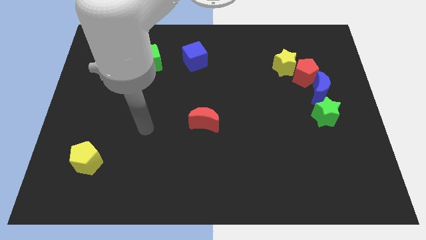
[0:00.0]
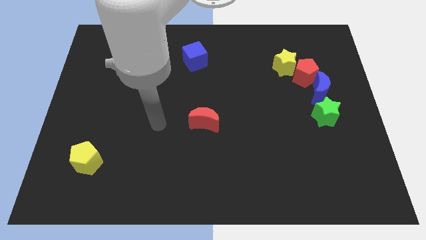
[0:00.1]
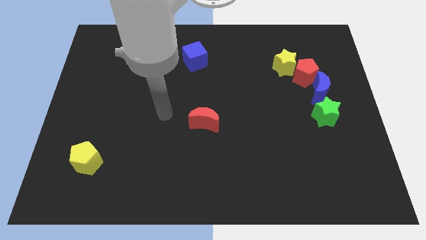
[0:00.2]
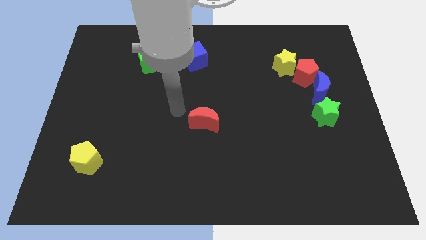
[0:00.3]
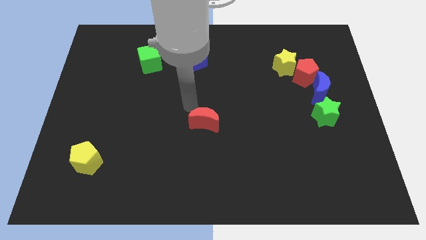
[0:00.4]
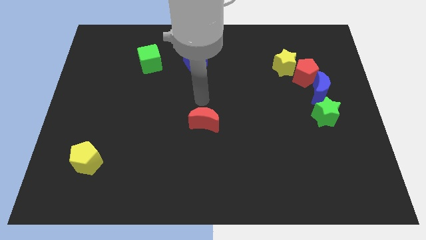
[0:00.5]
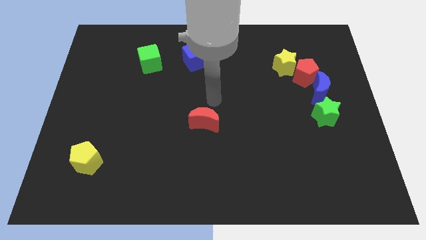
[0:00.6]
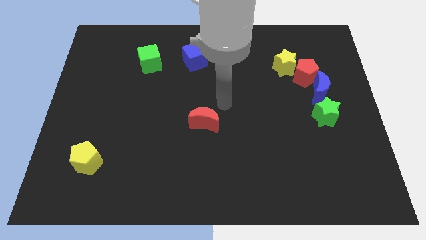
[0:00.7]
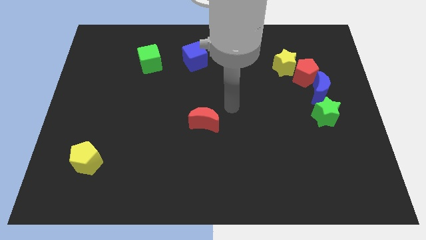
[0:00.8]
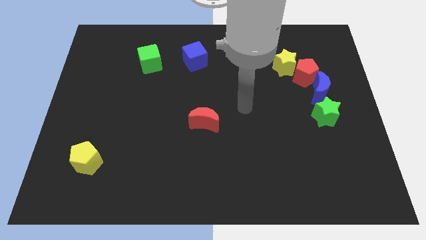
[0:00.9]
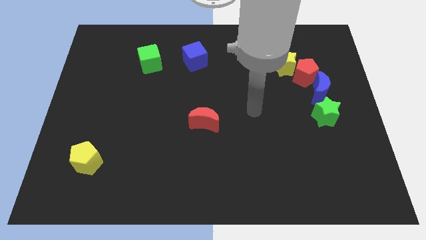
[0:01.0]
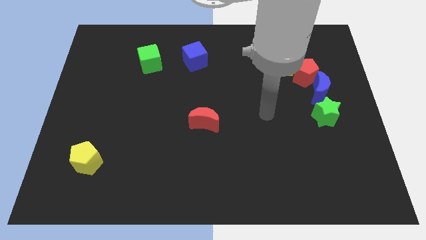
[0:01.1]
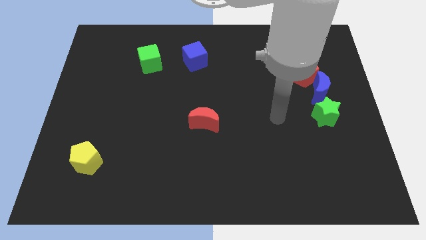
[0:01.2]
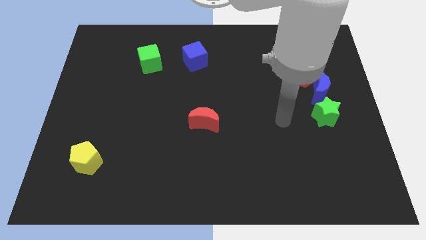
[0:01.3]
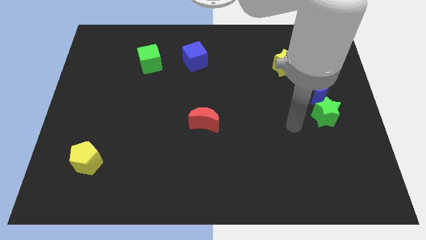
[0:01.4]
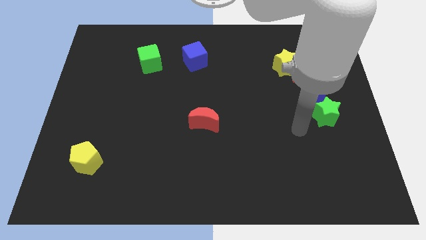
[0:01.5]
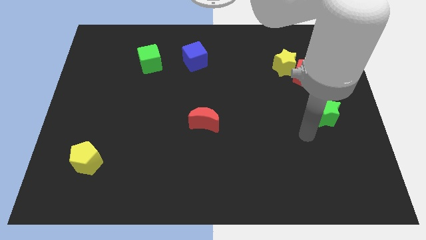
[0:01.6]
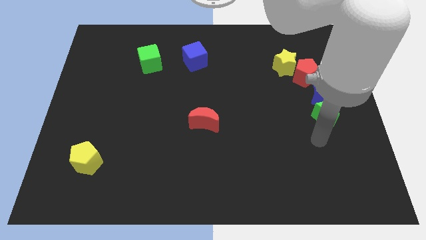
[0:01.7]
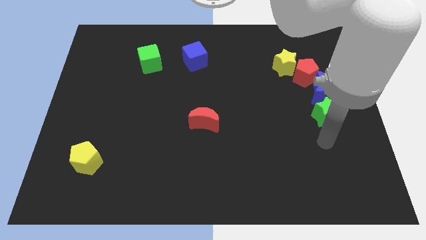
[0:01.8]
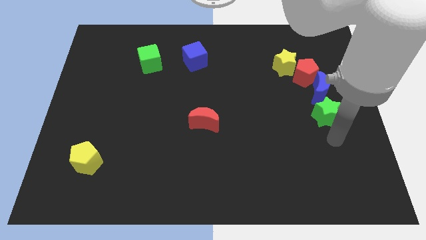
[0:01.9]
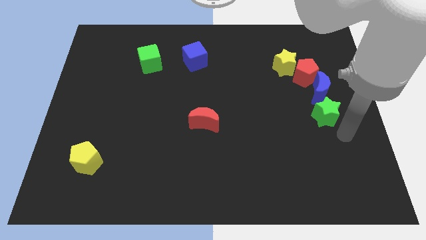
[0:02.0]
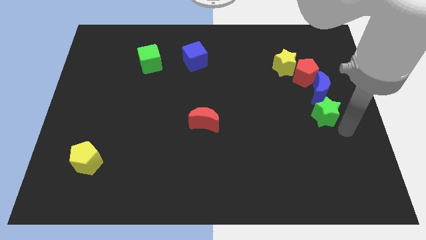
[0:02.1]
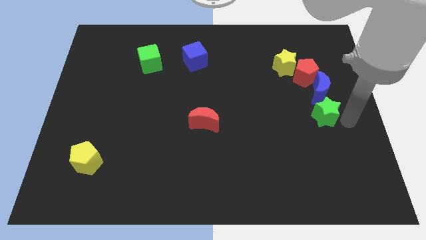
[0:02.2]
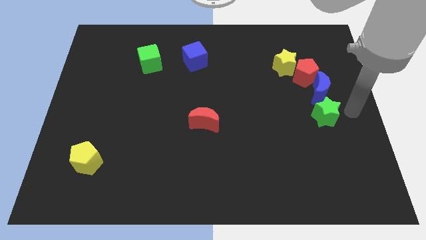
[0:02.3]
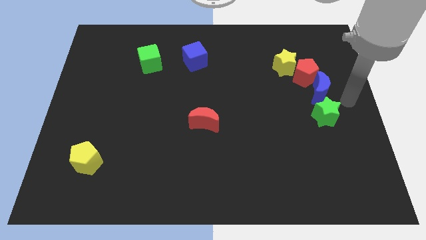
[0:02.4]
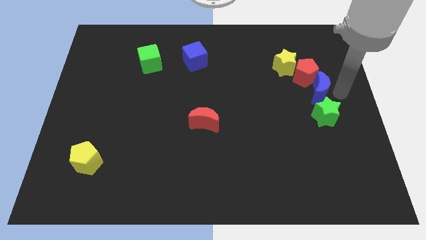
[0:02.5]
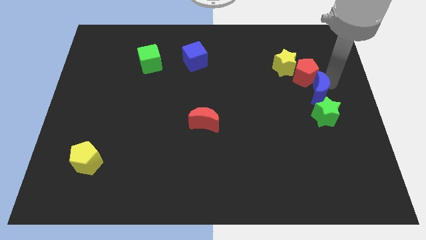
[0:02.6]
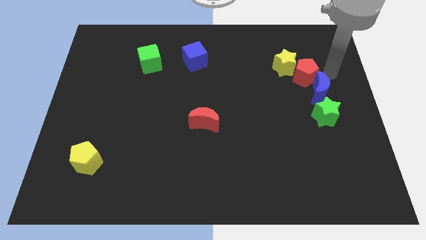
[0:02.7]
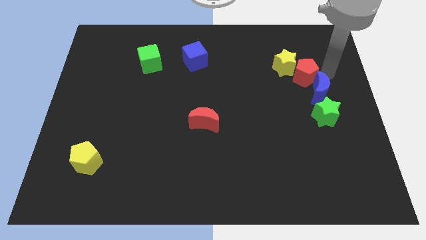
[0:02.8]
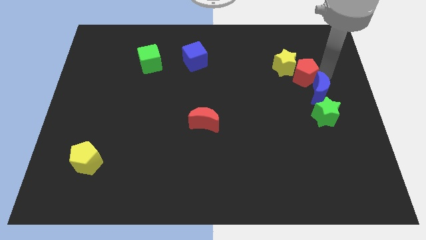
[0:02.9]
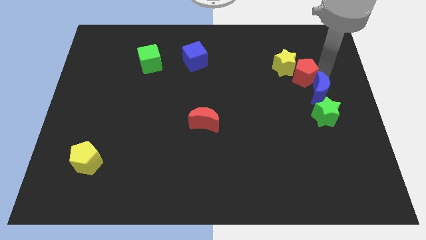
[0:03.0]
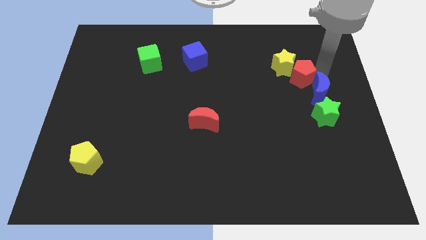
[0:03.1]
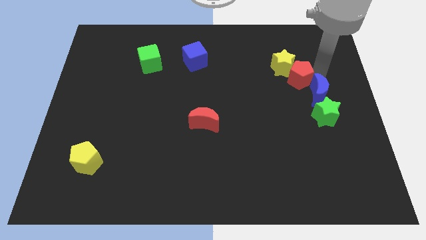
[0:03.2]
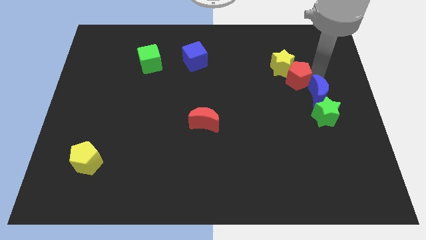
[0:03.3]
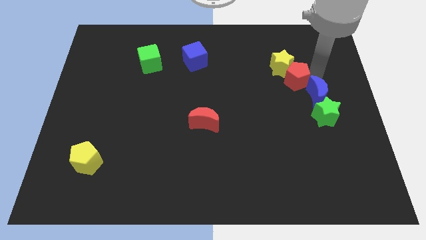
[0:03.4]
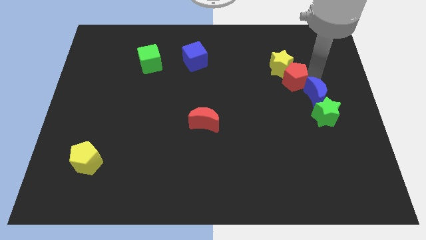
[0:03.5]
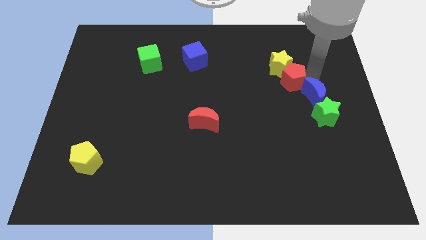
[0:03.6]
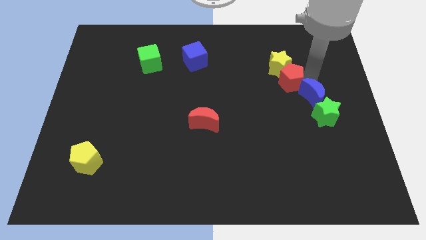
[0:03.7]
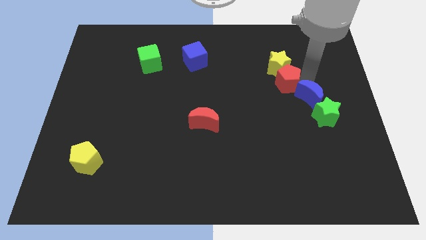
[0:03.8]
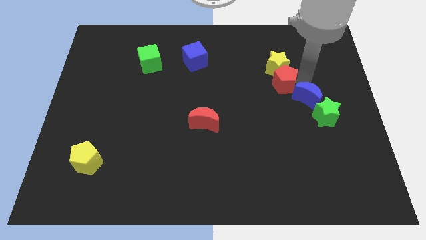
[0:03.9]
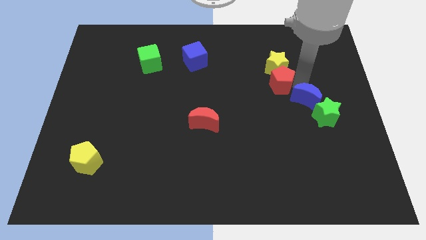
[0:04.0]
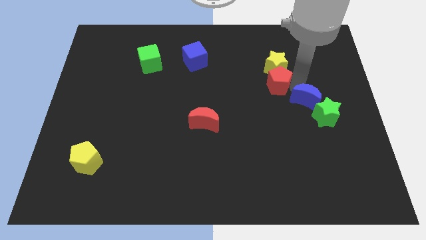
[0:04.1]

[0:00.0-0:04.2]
slightly move the red pentagon to the left

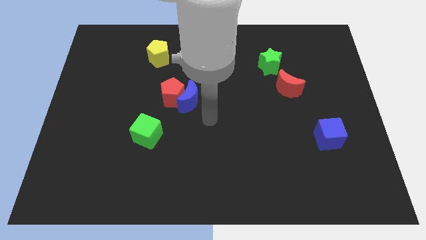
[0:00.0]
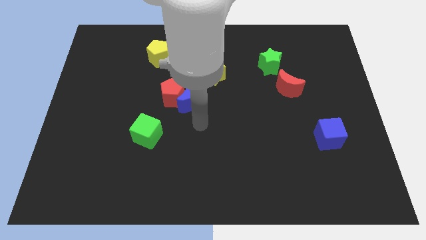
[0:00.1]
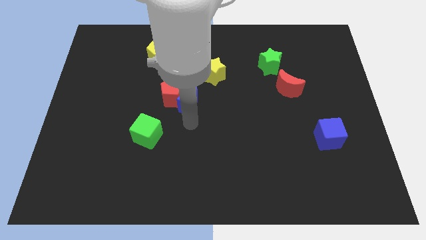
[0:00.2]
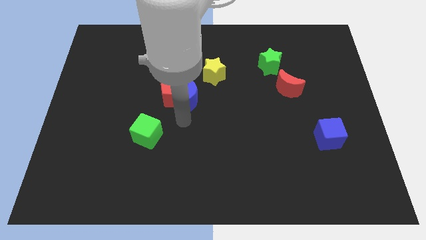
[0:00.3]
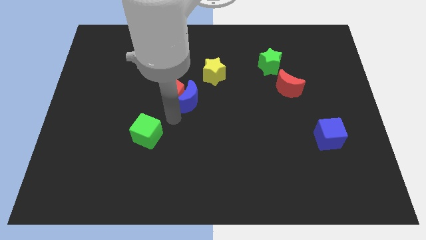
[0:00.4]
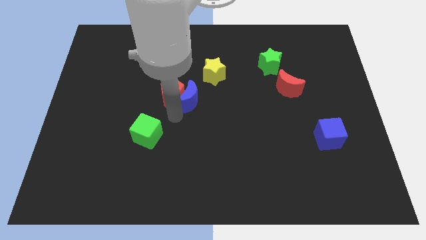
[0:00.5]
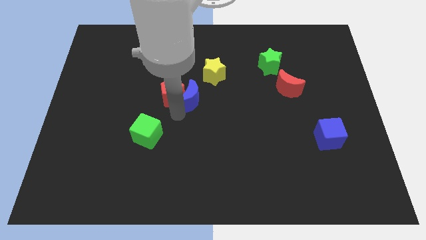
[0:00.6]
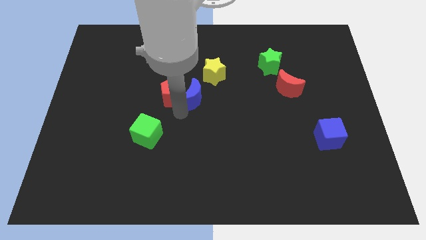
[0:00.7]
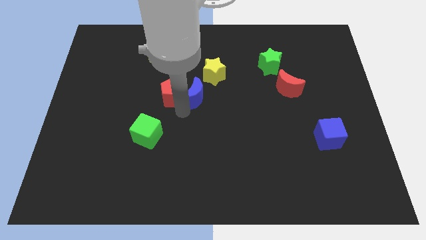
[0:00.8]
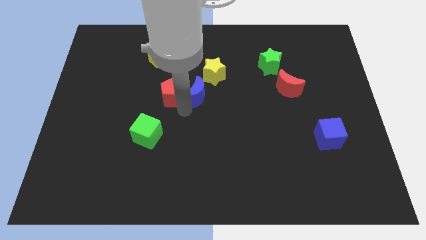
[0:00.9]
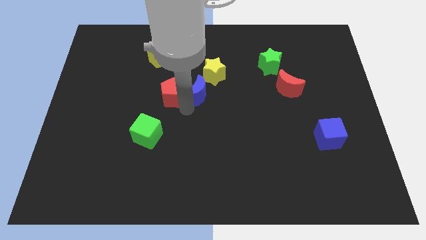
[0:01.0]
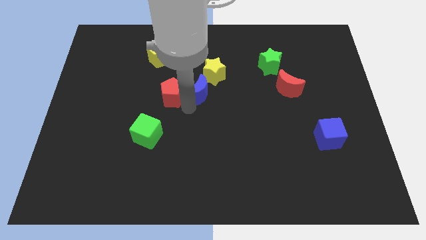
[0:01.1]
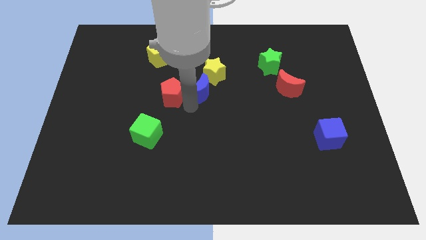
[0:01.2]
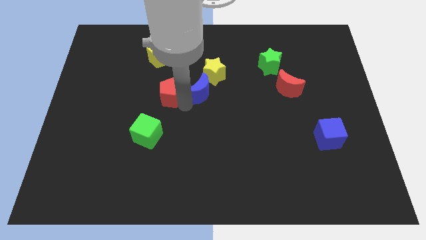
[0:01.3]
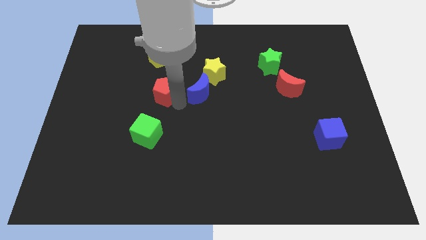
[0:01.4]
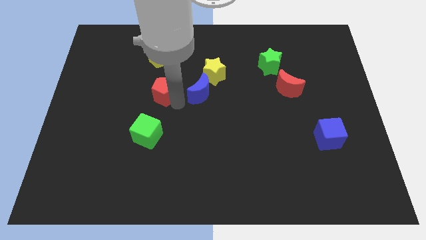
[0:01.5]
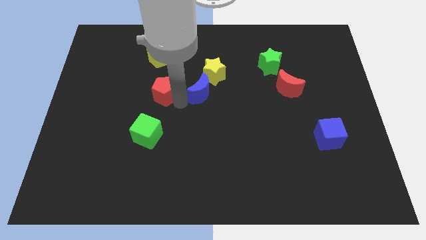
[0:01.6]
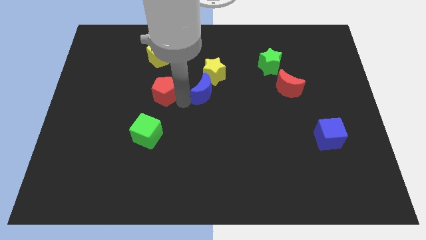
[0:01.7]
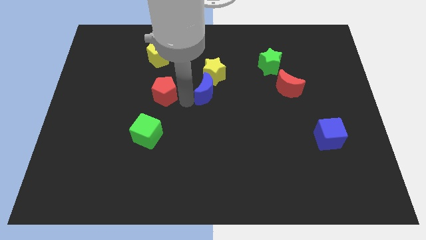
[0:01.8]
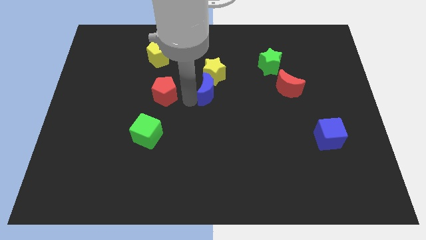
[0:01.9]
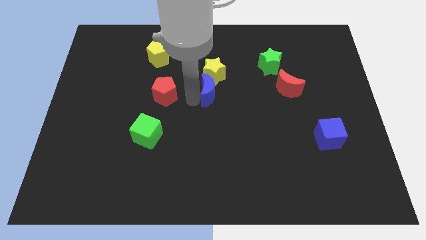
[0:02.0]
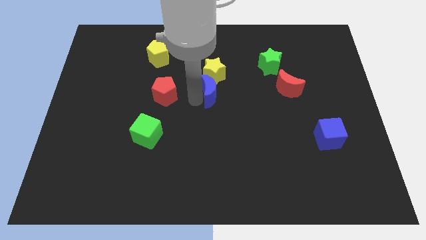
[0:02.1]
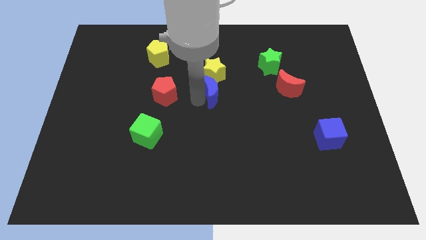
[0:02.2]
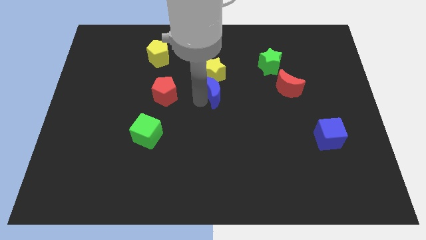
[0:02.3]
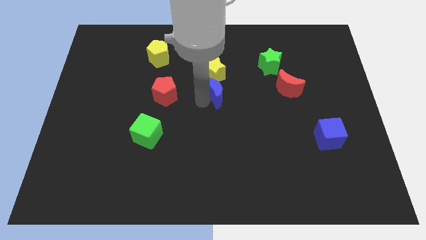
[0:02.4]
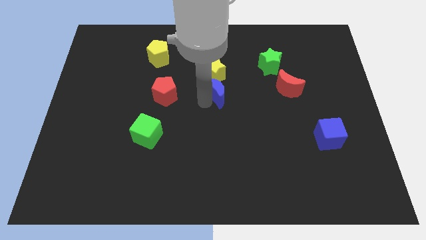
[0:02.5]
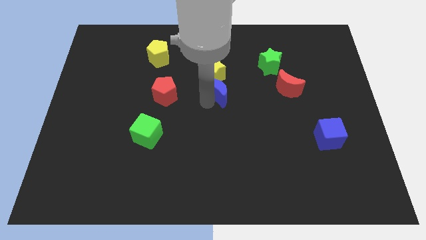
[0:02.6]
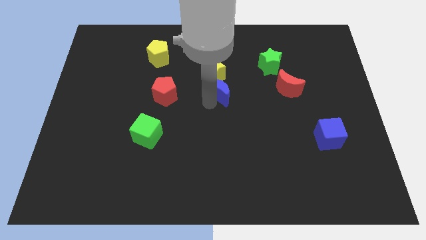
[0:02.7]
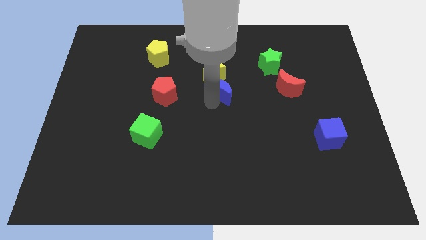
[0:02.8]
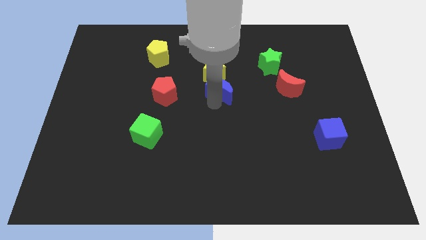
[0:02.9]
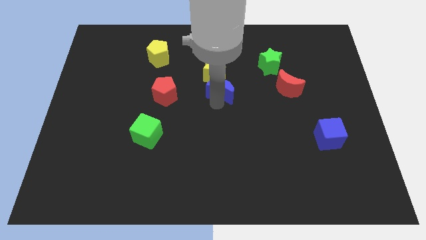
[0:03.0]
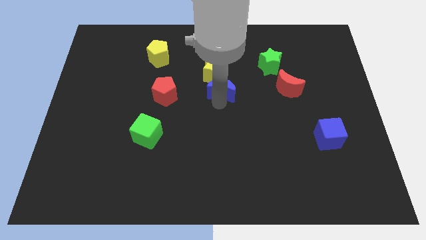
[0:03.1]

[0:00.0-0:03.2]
slightly move the blue moon up and to the right

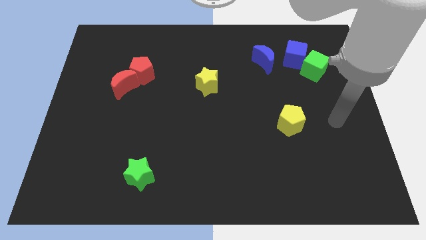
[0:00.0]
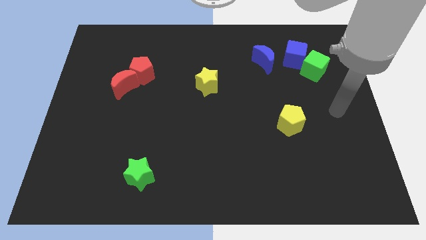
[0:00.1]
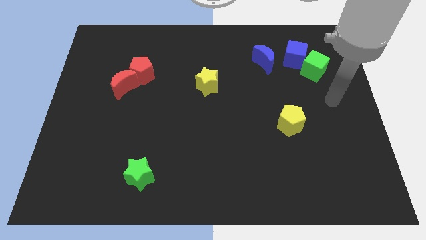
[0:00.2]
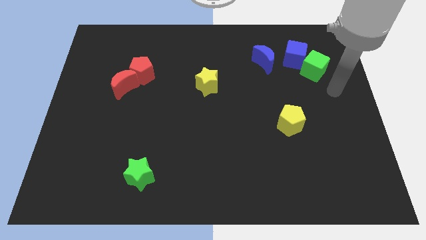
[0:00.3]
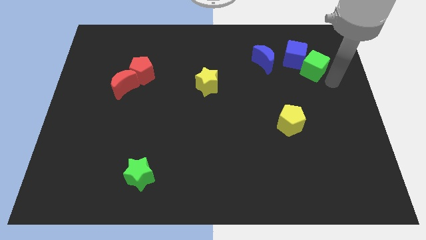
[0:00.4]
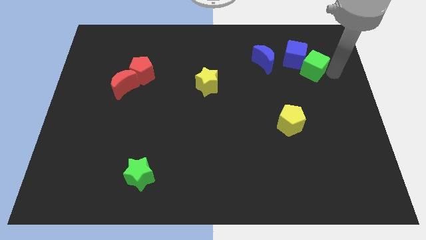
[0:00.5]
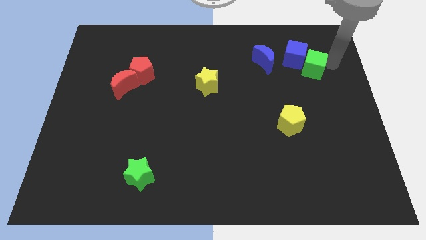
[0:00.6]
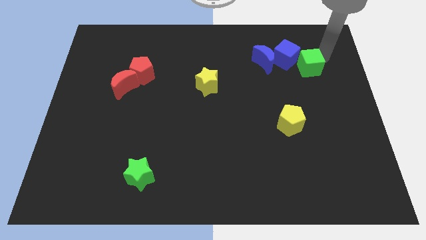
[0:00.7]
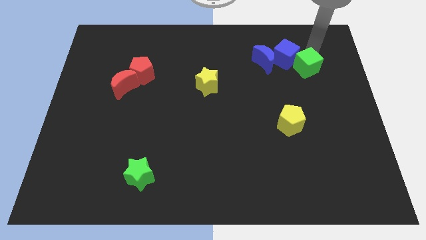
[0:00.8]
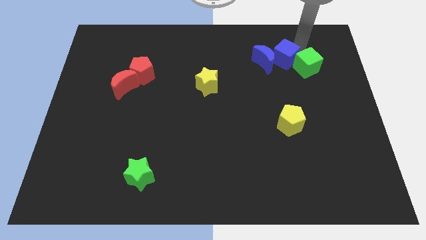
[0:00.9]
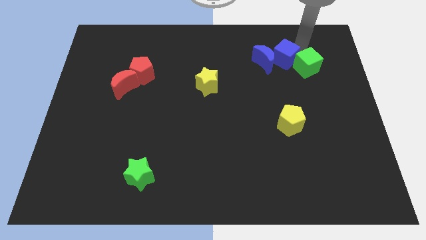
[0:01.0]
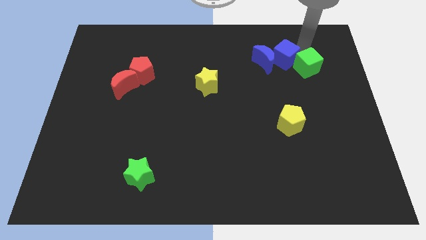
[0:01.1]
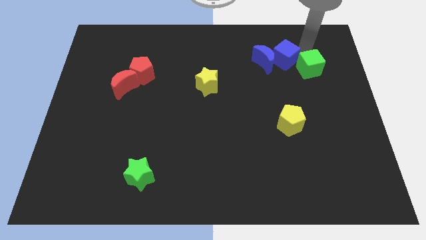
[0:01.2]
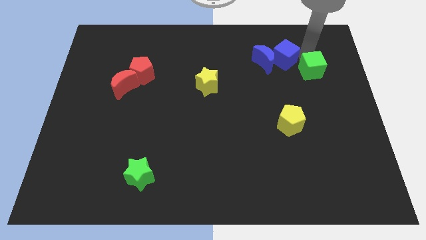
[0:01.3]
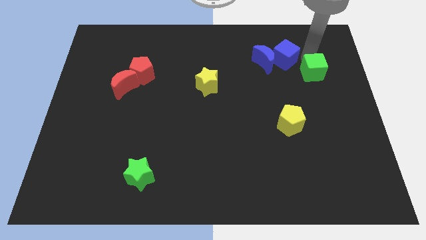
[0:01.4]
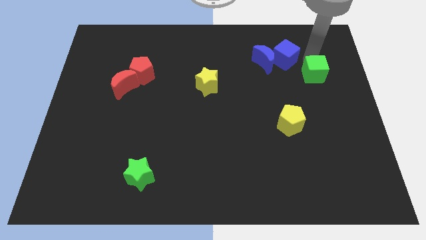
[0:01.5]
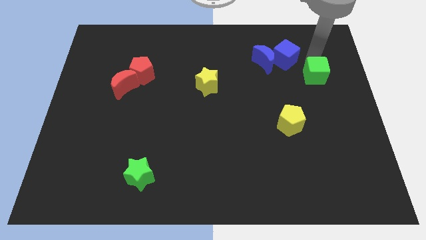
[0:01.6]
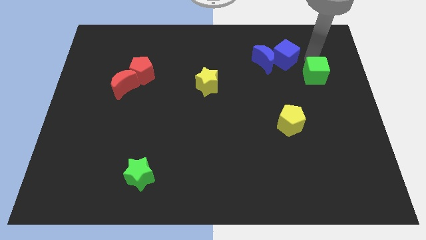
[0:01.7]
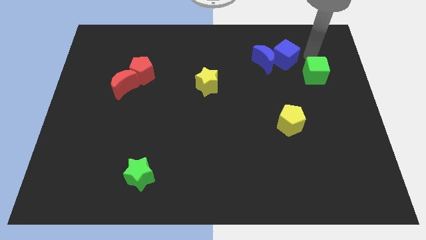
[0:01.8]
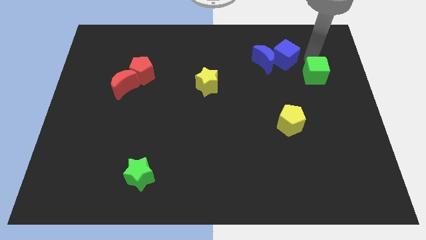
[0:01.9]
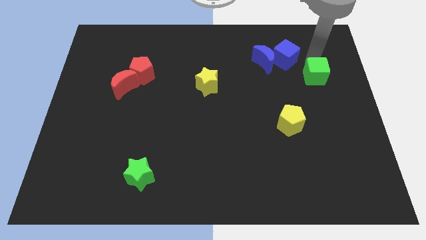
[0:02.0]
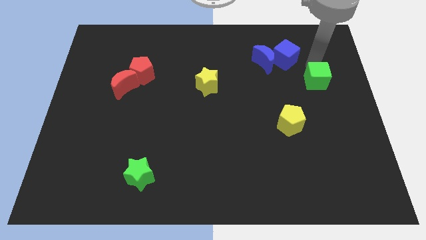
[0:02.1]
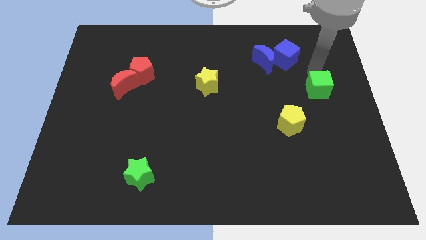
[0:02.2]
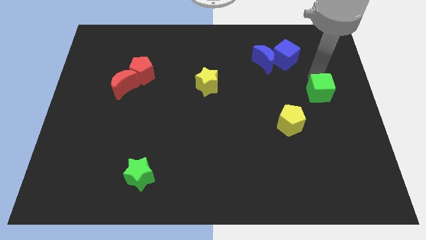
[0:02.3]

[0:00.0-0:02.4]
move the green cube downwards a bit
